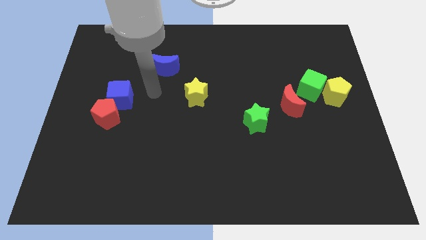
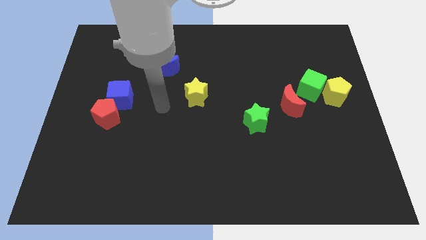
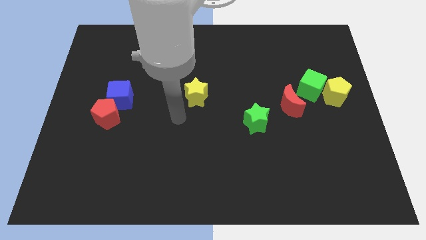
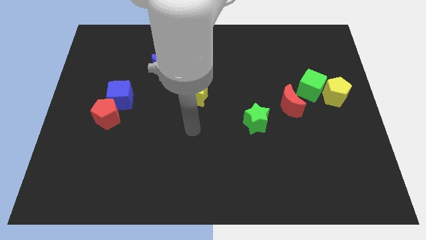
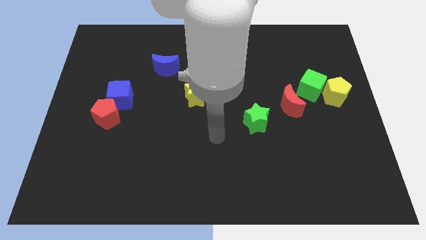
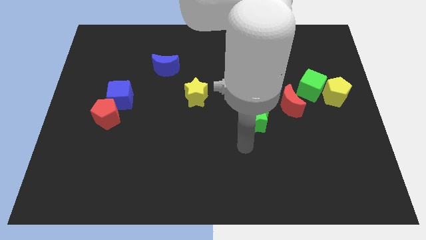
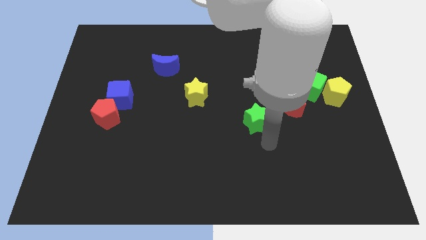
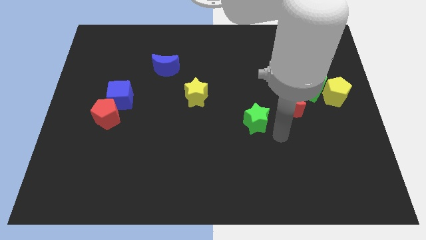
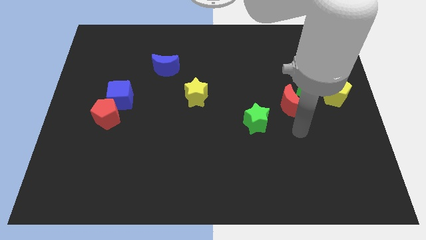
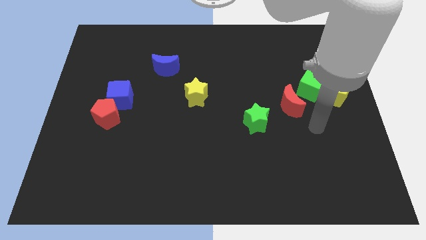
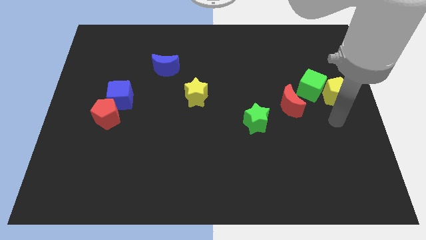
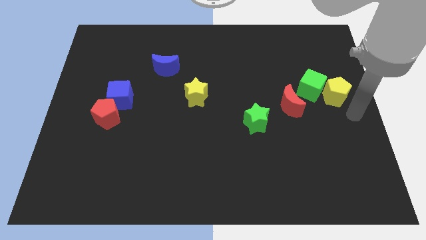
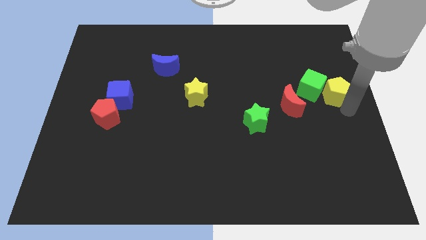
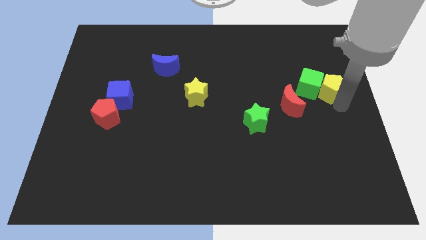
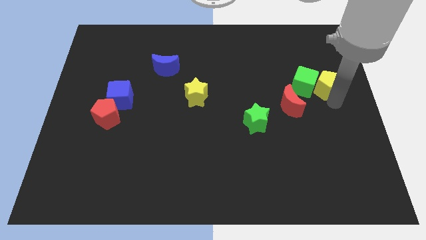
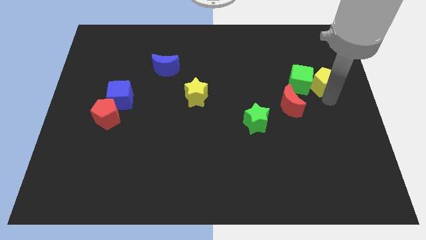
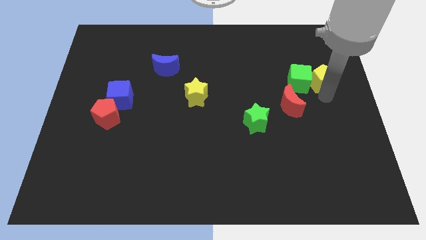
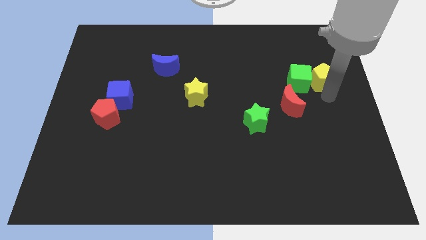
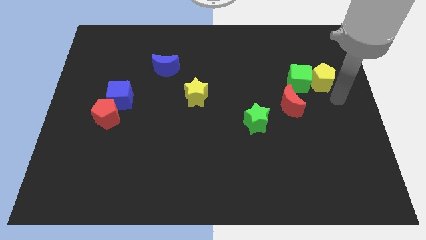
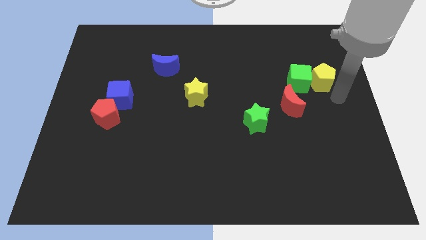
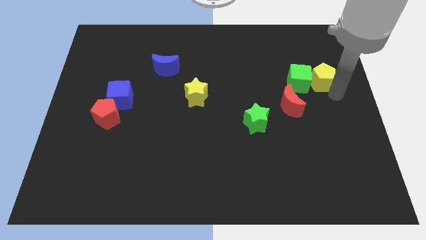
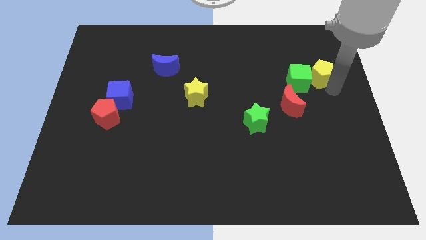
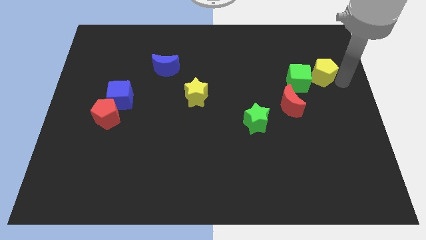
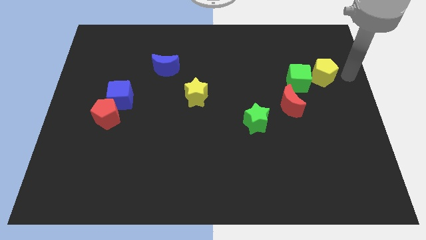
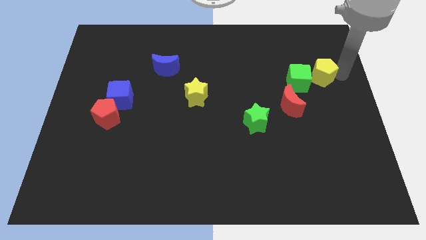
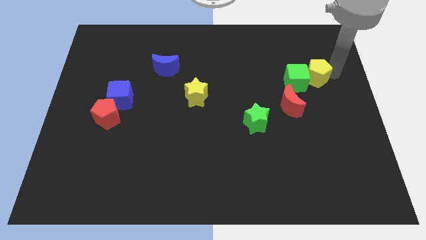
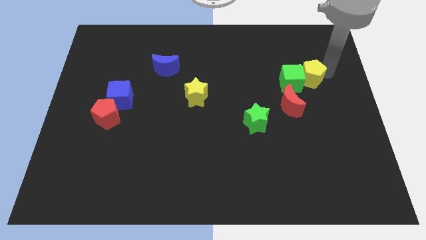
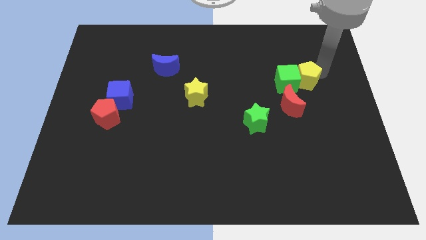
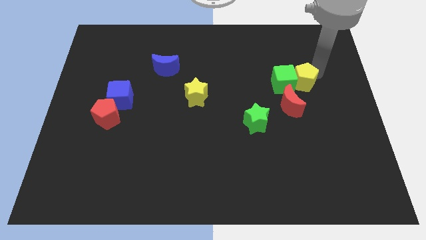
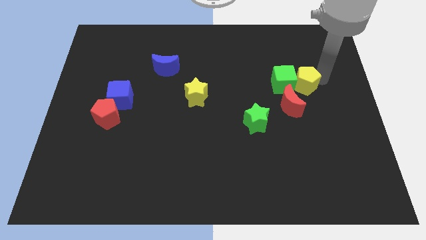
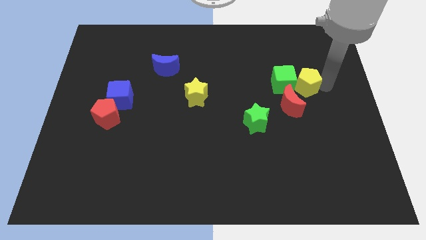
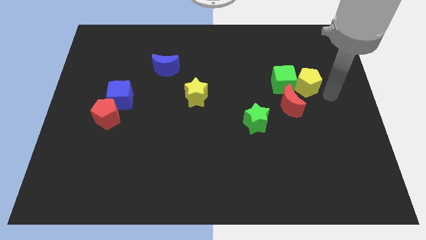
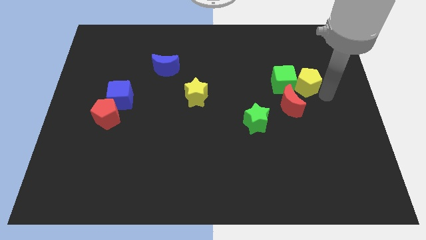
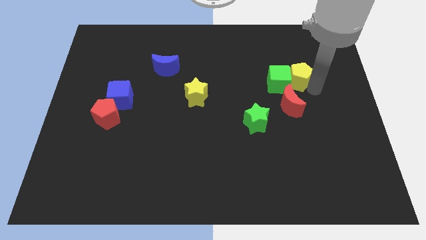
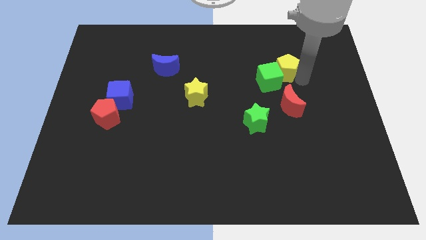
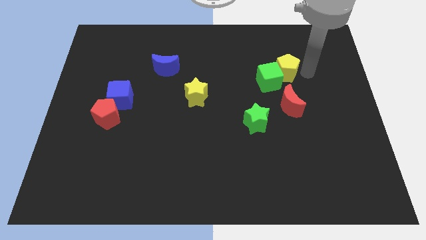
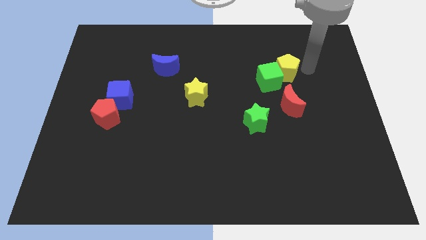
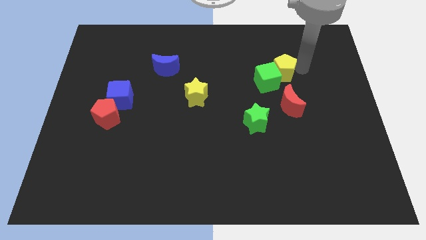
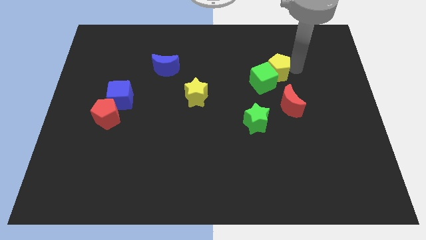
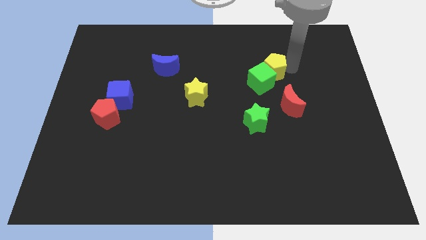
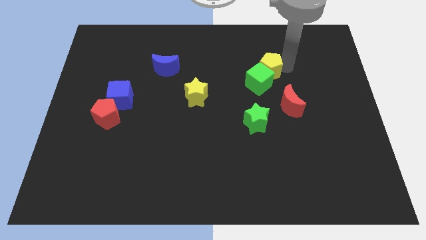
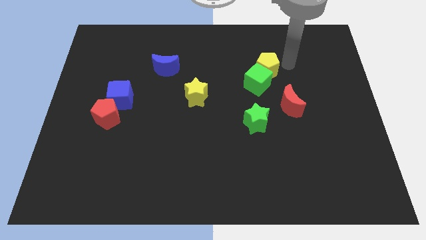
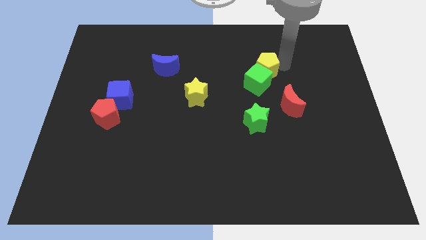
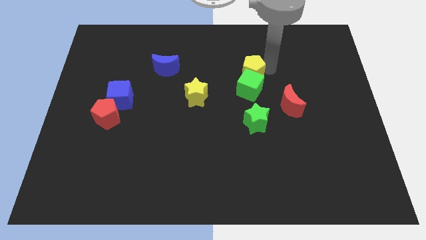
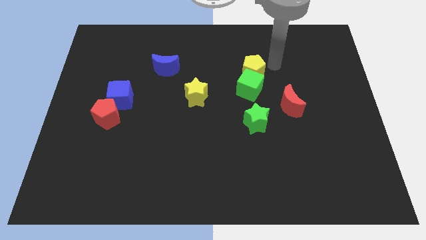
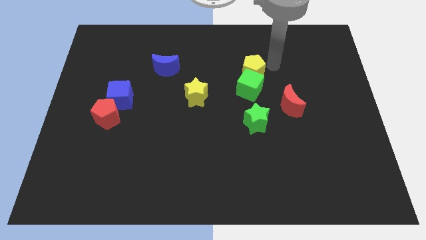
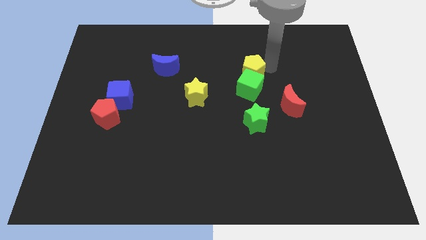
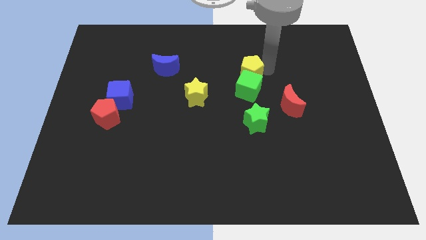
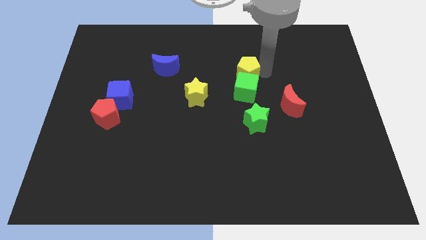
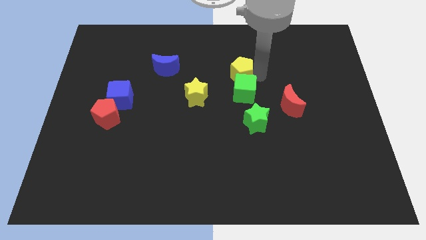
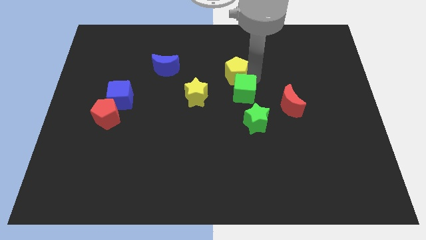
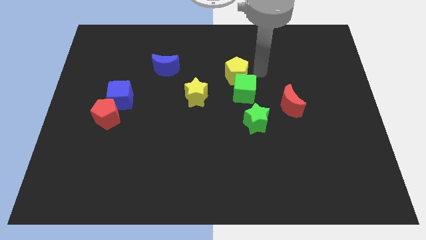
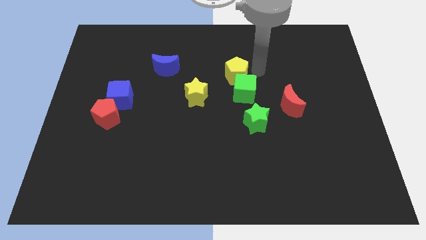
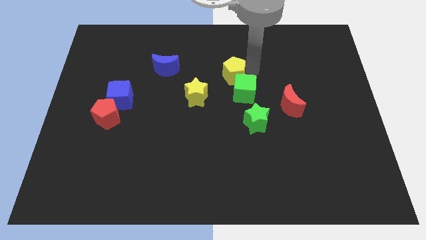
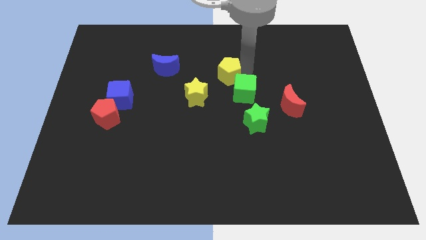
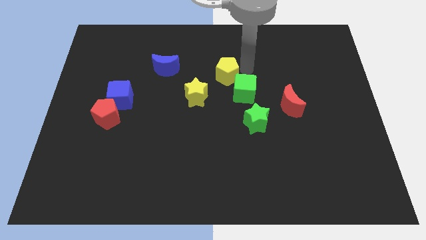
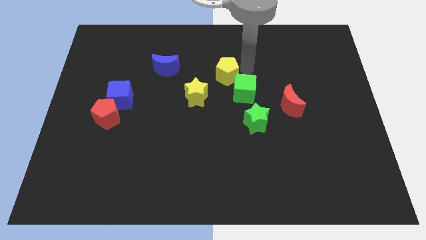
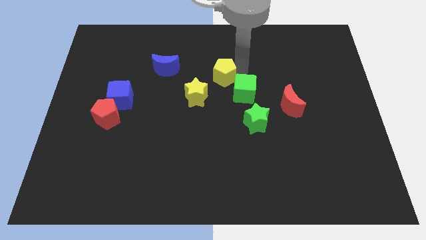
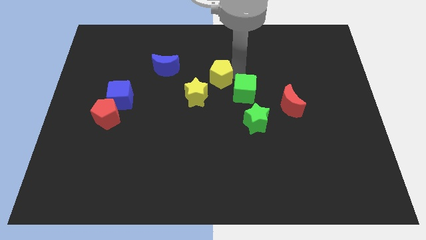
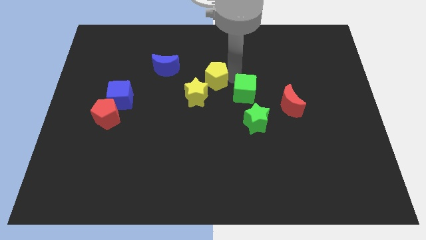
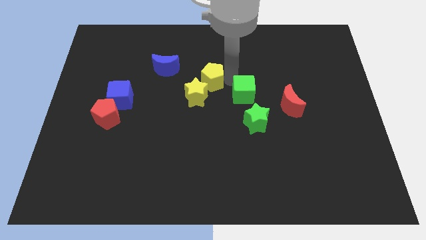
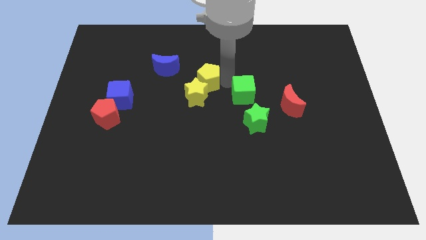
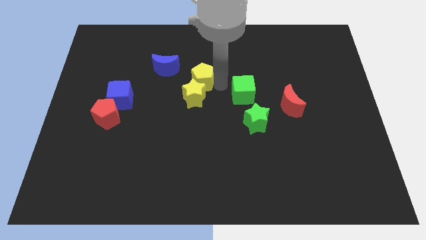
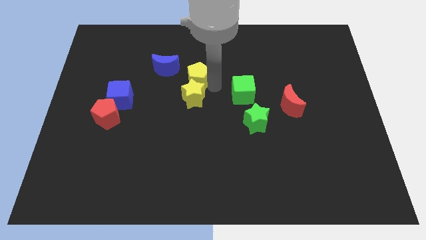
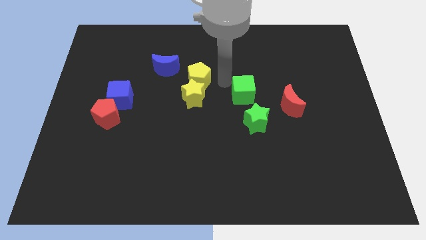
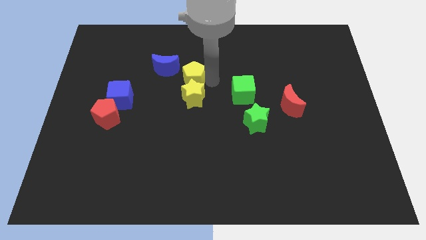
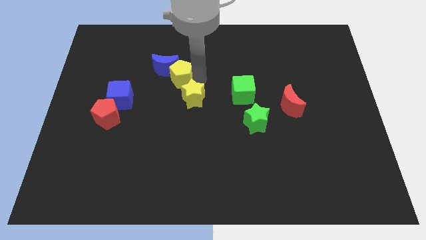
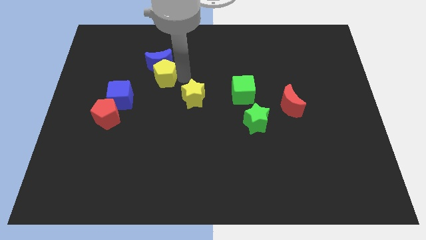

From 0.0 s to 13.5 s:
move the yellow pentagon to the top right side of the blue cube
